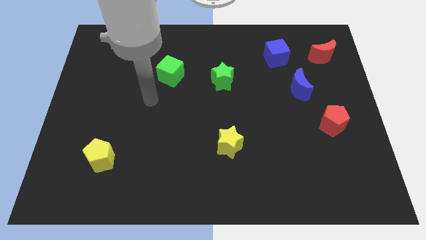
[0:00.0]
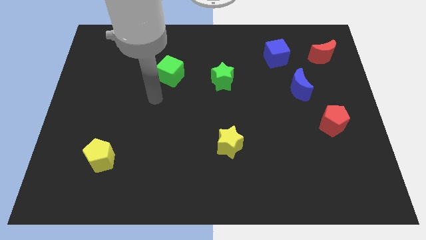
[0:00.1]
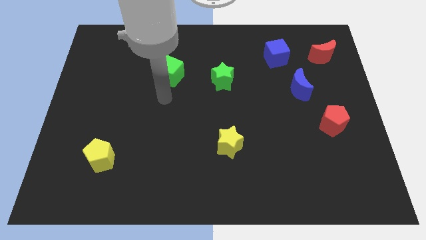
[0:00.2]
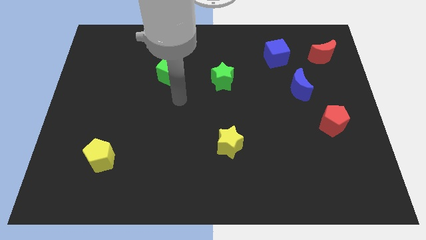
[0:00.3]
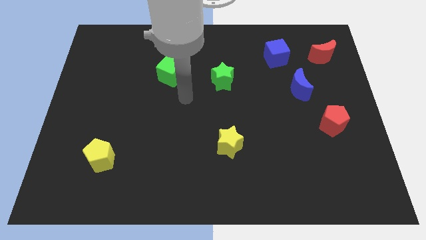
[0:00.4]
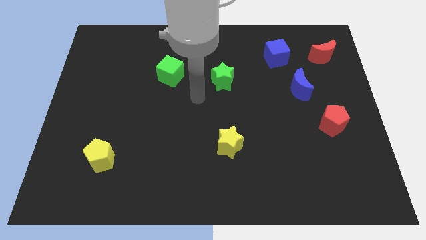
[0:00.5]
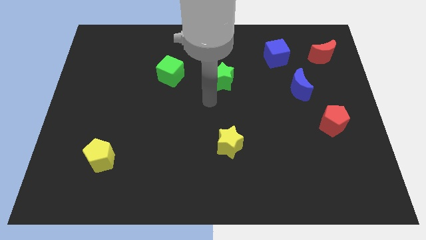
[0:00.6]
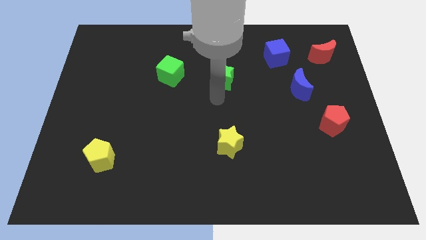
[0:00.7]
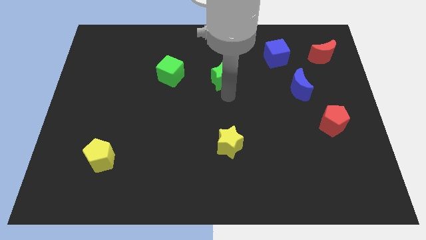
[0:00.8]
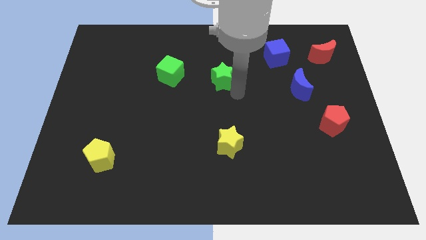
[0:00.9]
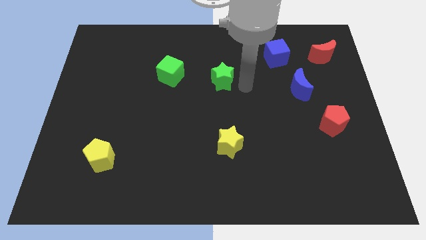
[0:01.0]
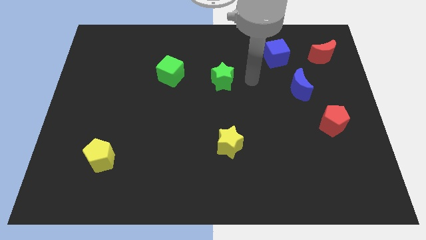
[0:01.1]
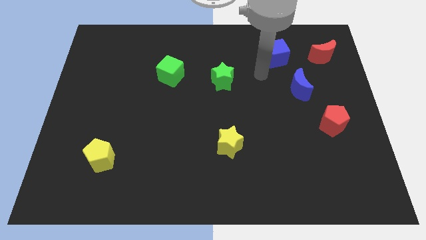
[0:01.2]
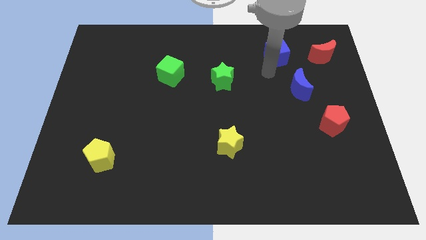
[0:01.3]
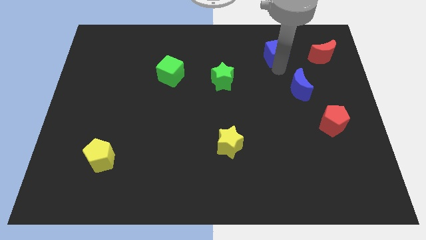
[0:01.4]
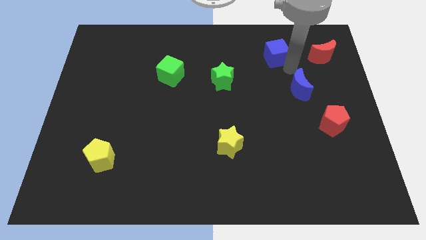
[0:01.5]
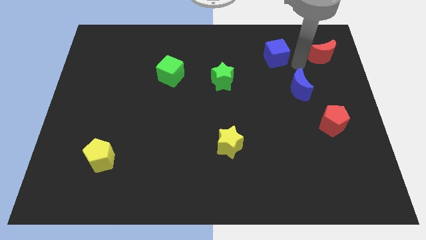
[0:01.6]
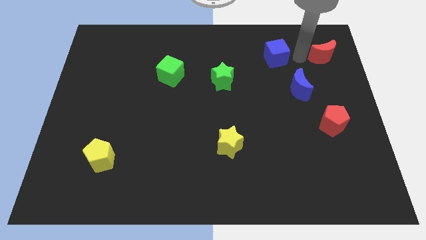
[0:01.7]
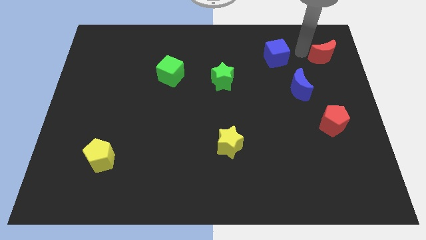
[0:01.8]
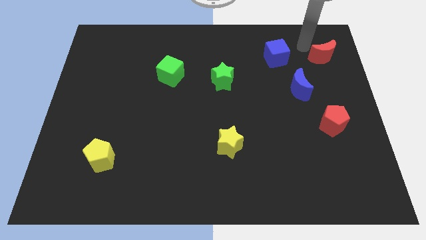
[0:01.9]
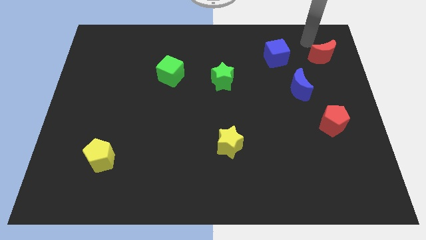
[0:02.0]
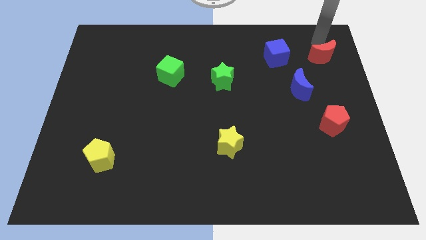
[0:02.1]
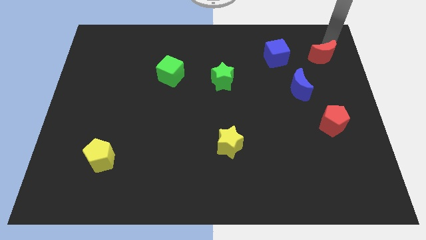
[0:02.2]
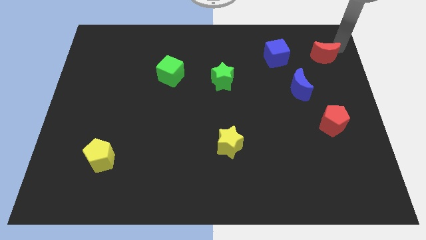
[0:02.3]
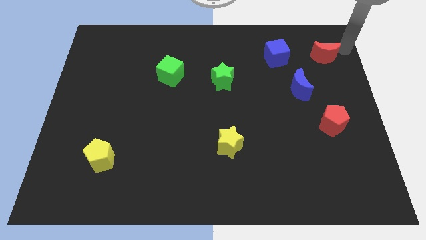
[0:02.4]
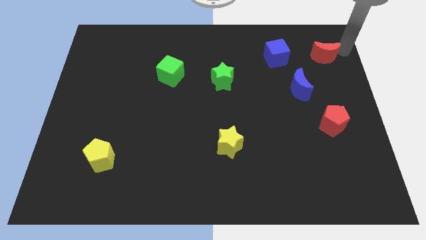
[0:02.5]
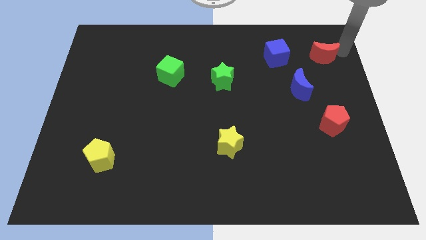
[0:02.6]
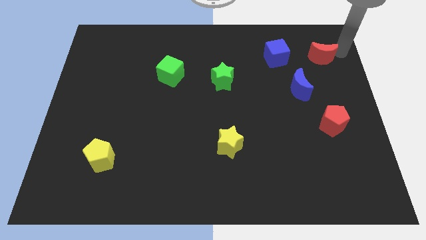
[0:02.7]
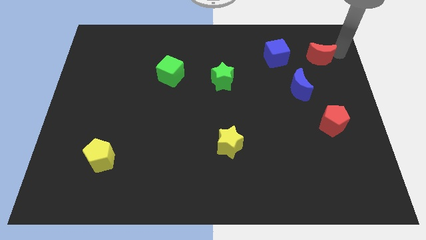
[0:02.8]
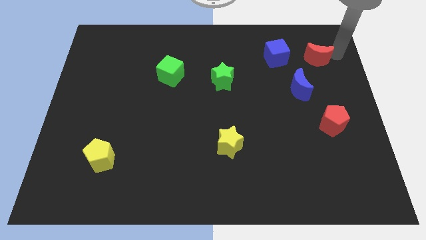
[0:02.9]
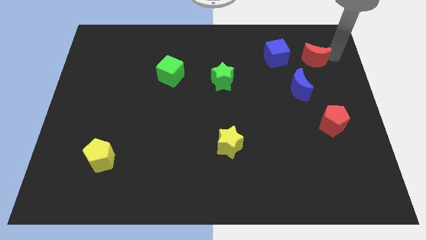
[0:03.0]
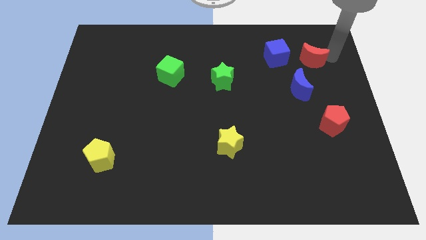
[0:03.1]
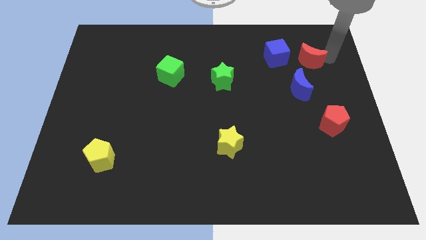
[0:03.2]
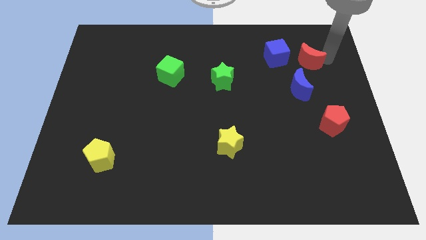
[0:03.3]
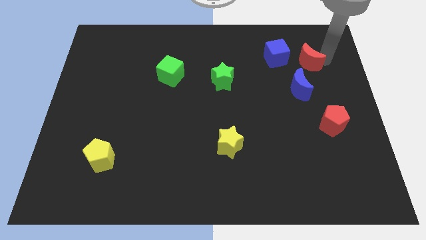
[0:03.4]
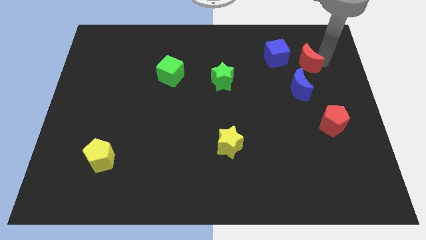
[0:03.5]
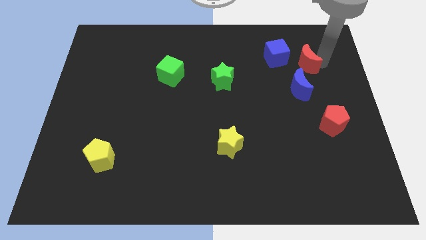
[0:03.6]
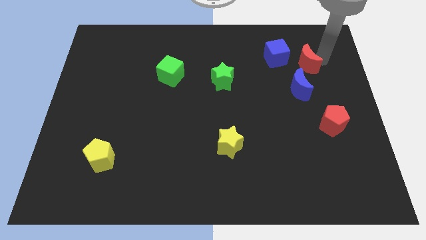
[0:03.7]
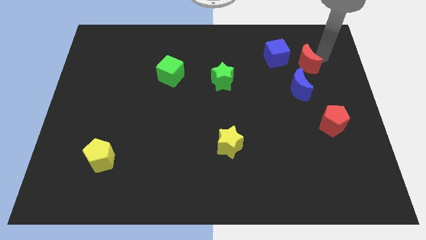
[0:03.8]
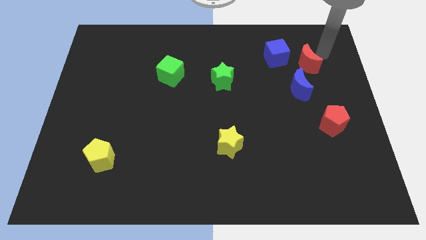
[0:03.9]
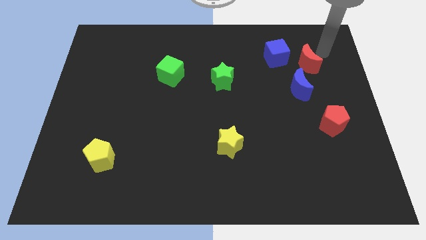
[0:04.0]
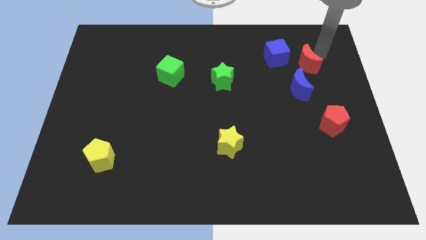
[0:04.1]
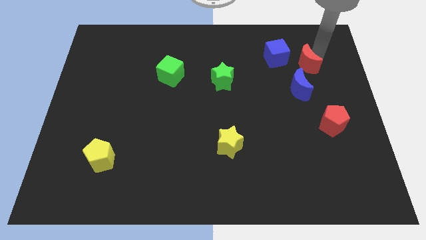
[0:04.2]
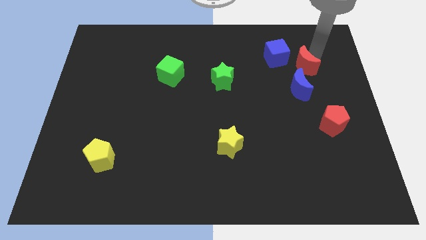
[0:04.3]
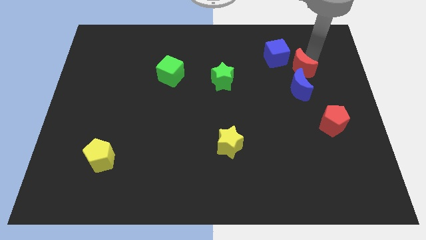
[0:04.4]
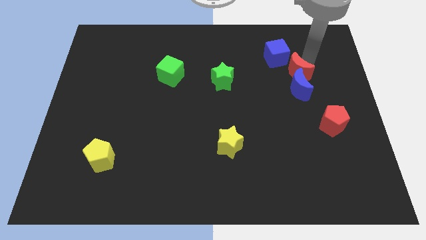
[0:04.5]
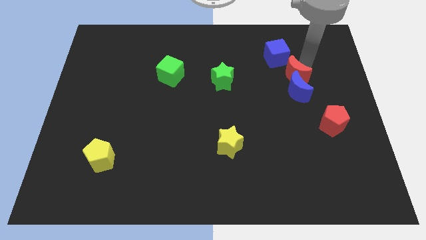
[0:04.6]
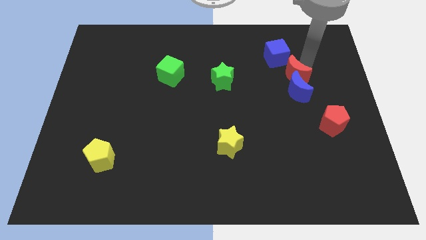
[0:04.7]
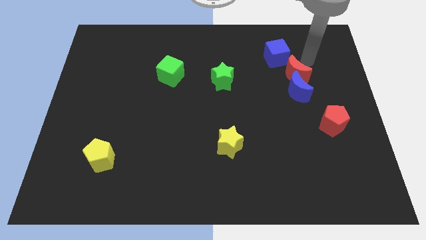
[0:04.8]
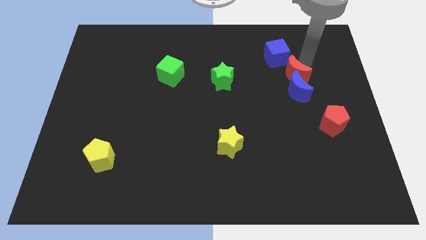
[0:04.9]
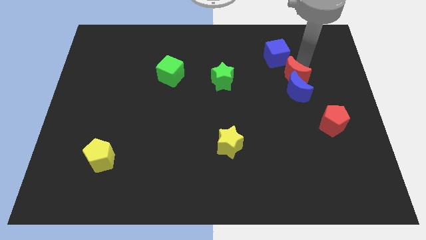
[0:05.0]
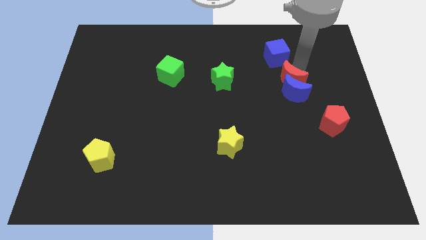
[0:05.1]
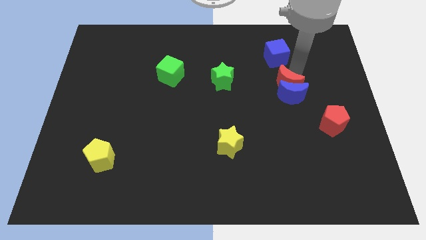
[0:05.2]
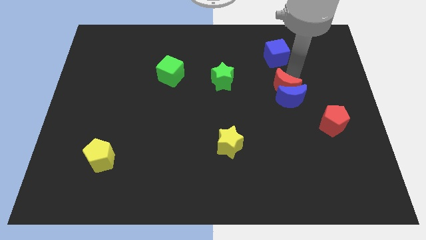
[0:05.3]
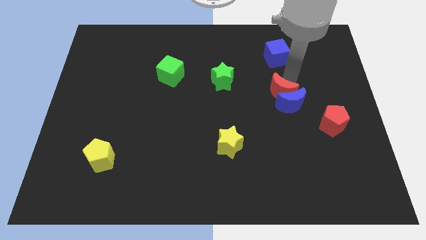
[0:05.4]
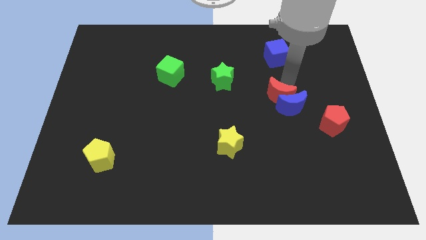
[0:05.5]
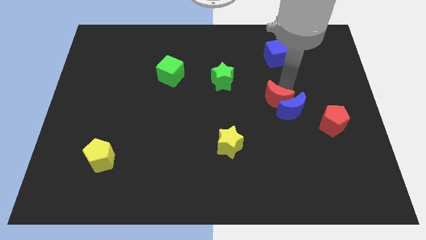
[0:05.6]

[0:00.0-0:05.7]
move the red moon down and left diagonally

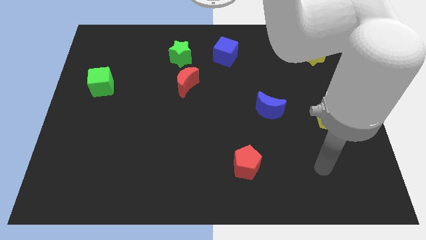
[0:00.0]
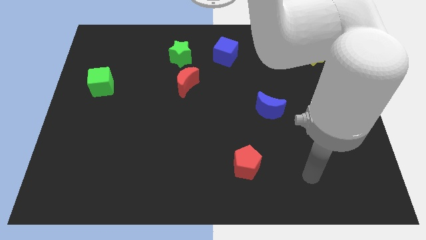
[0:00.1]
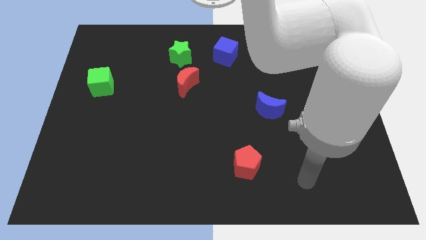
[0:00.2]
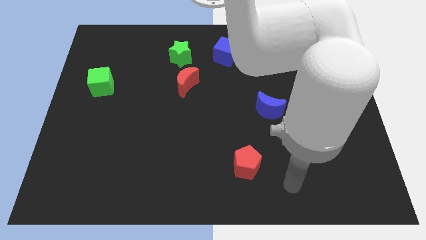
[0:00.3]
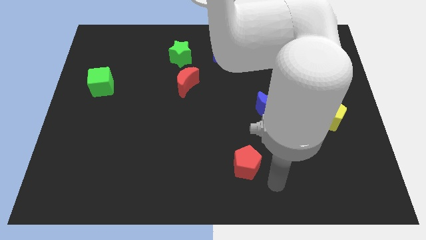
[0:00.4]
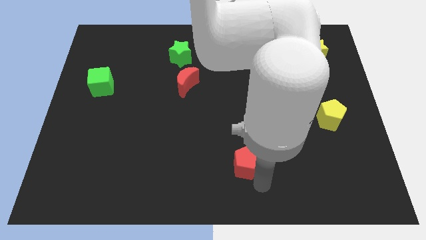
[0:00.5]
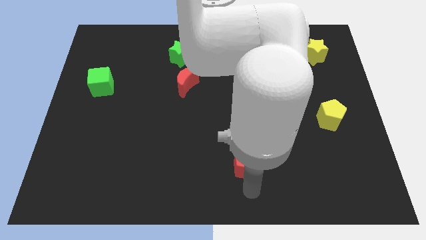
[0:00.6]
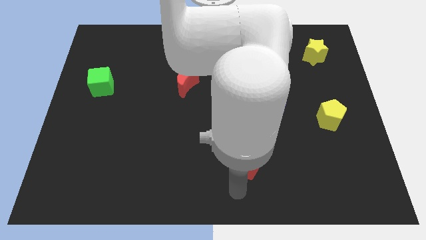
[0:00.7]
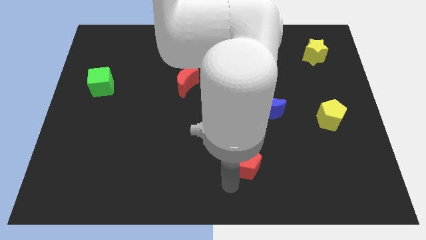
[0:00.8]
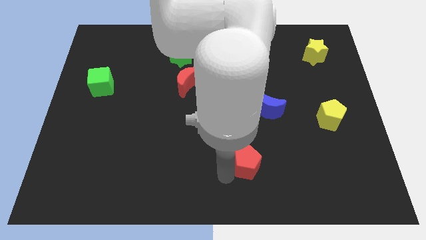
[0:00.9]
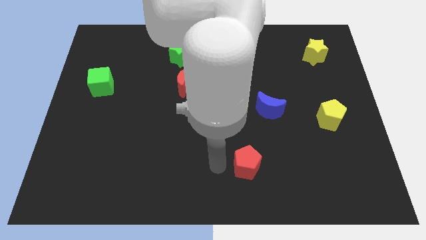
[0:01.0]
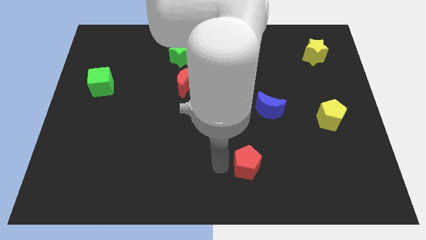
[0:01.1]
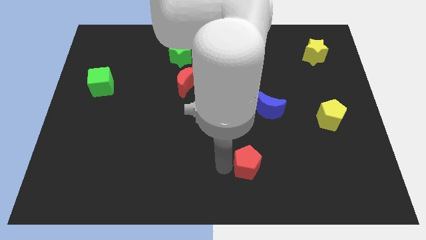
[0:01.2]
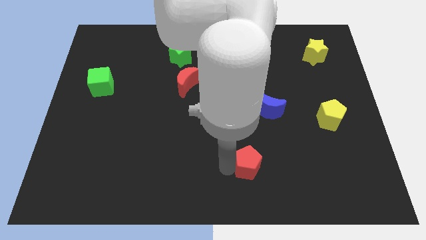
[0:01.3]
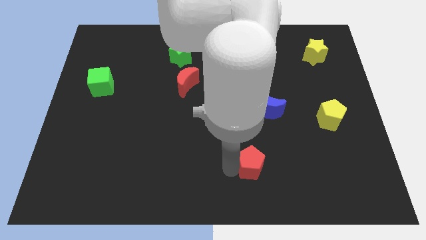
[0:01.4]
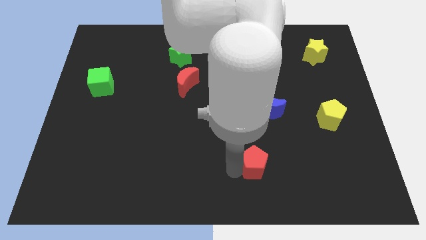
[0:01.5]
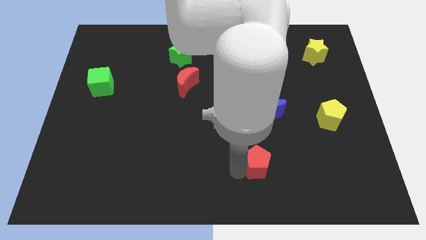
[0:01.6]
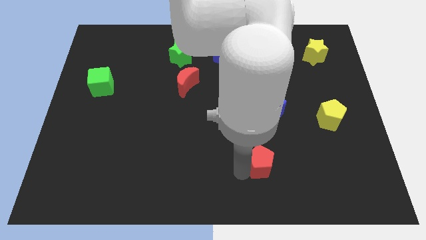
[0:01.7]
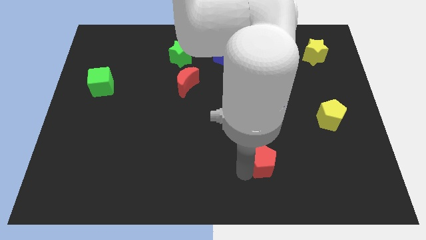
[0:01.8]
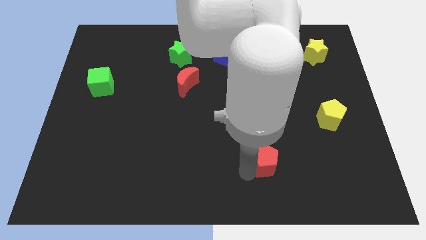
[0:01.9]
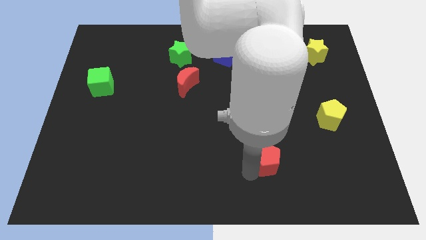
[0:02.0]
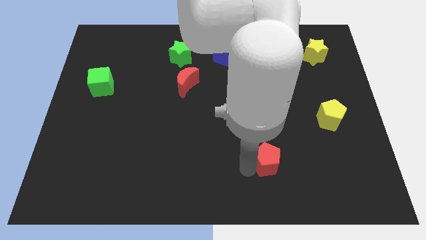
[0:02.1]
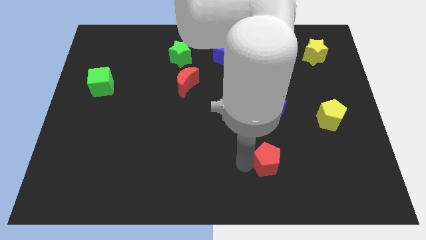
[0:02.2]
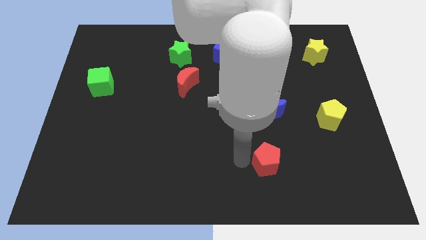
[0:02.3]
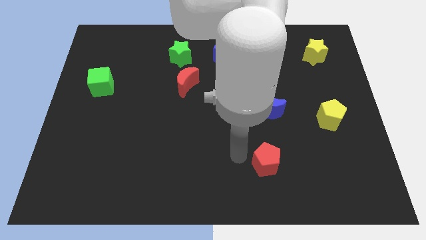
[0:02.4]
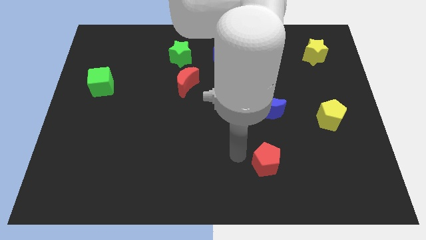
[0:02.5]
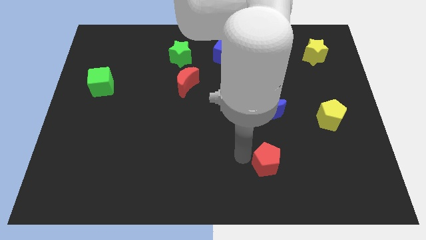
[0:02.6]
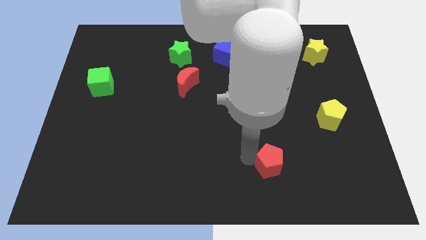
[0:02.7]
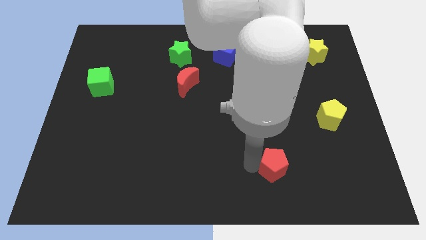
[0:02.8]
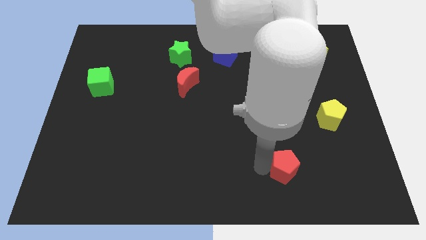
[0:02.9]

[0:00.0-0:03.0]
slightly push the red pentagon to the right
